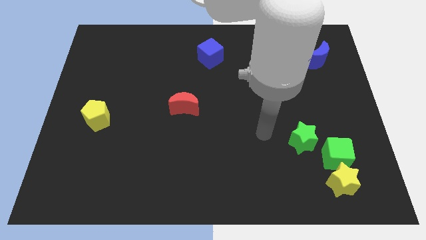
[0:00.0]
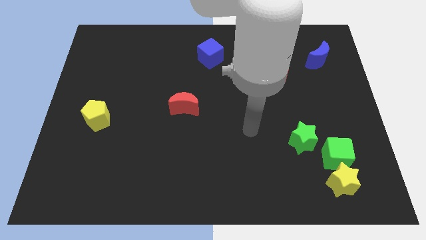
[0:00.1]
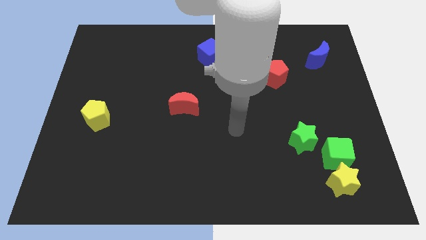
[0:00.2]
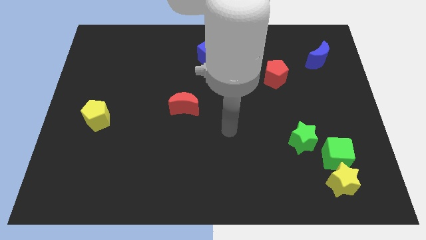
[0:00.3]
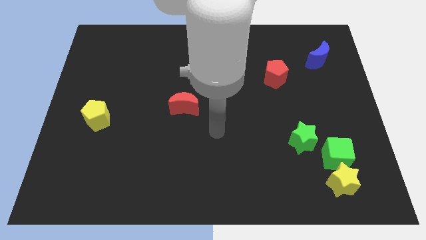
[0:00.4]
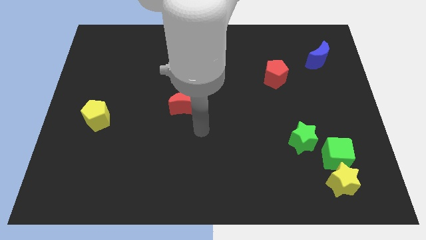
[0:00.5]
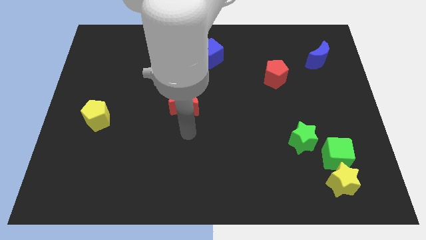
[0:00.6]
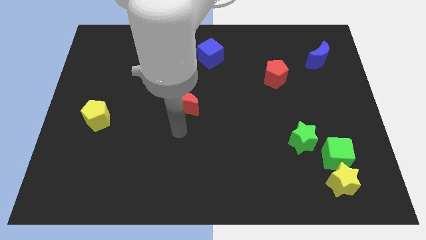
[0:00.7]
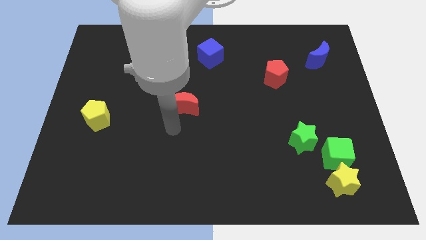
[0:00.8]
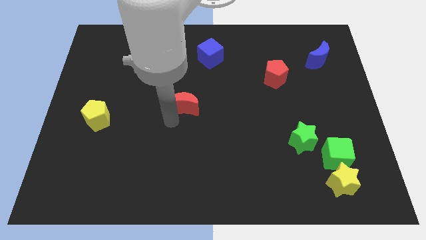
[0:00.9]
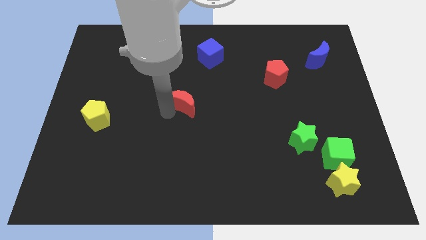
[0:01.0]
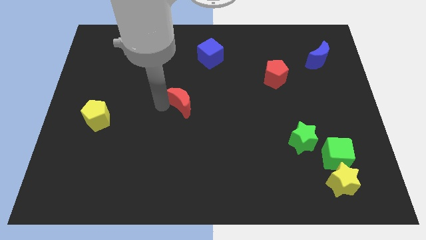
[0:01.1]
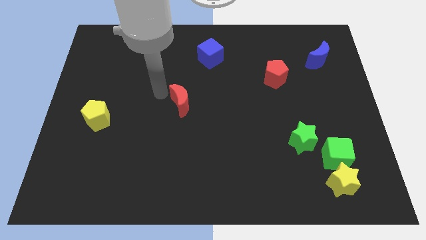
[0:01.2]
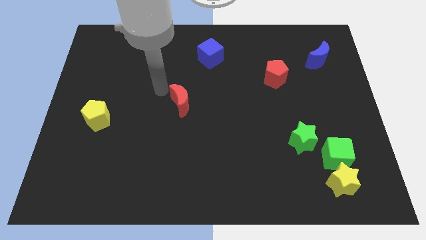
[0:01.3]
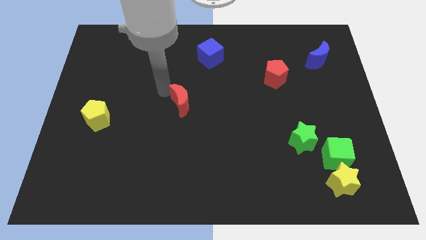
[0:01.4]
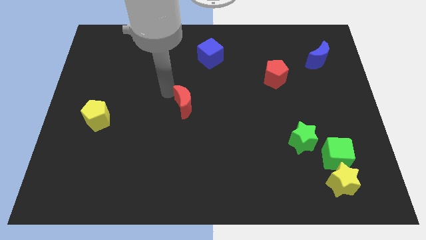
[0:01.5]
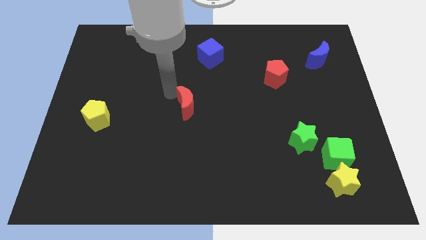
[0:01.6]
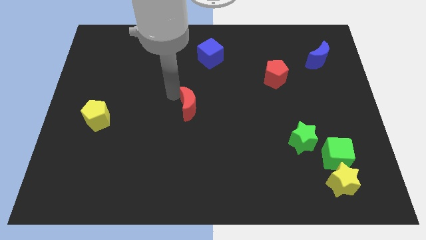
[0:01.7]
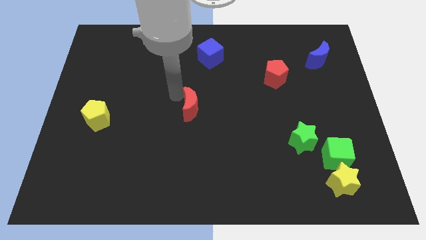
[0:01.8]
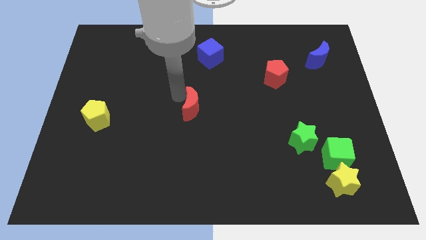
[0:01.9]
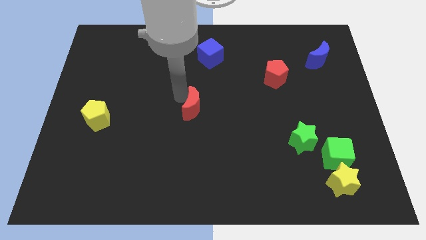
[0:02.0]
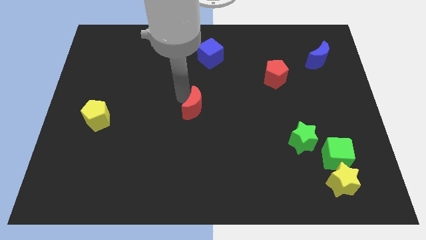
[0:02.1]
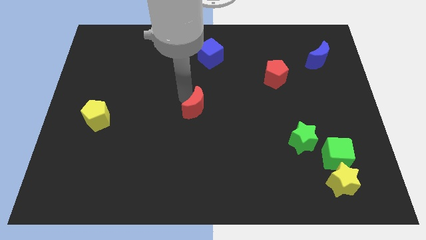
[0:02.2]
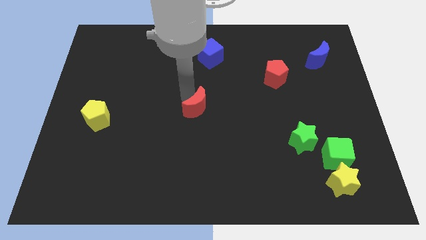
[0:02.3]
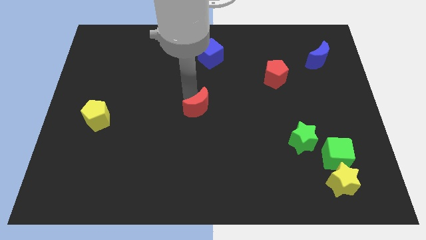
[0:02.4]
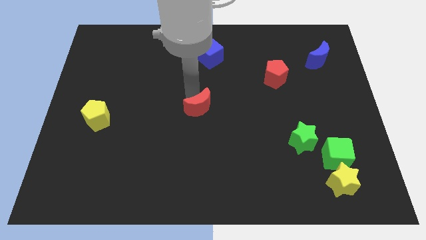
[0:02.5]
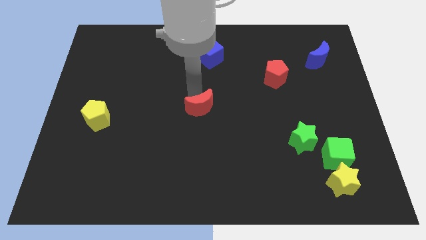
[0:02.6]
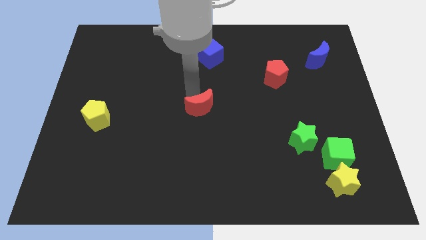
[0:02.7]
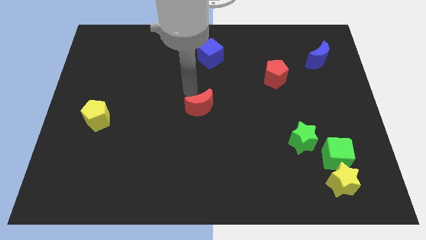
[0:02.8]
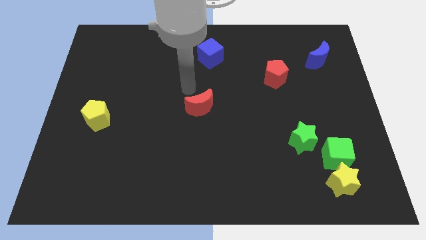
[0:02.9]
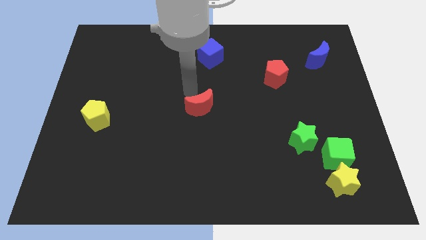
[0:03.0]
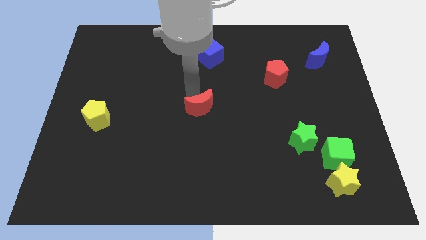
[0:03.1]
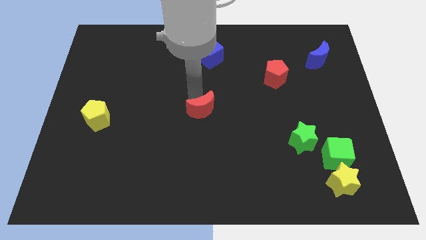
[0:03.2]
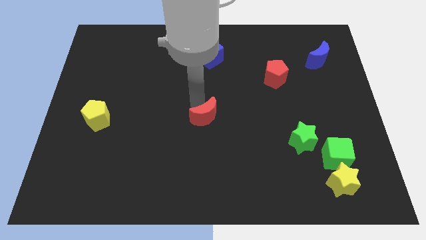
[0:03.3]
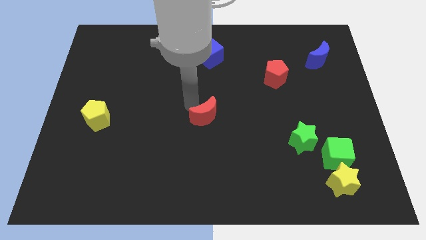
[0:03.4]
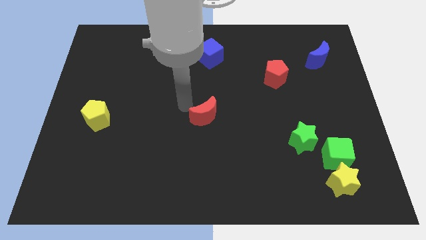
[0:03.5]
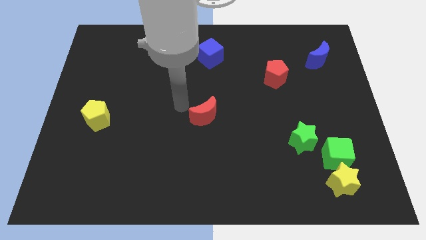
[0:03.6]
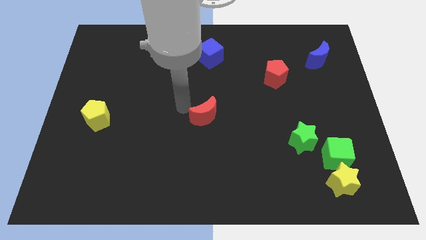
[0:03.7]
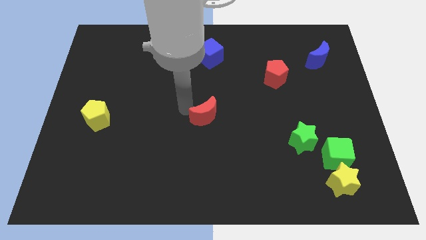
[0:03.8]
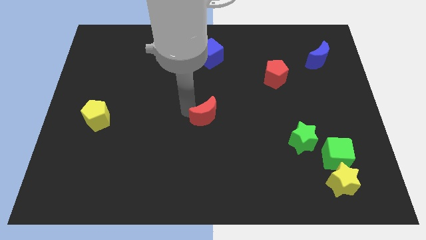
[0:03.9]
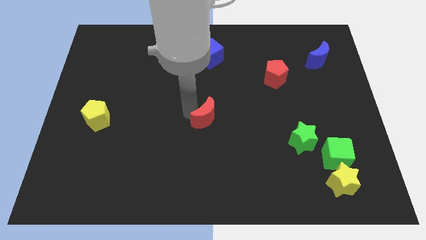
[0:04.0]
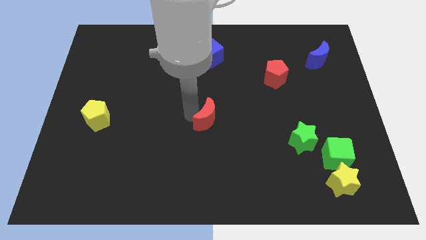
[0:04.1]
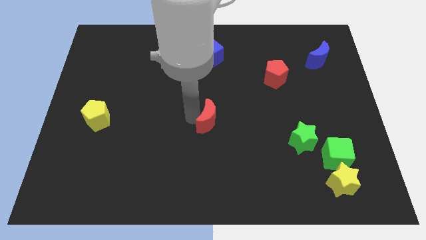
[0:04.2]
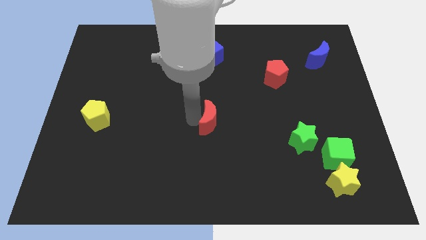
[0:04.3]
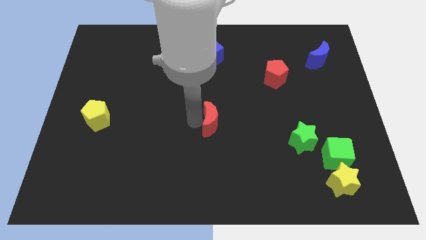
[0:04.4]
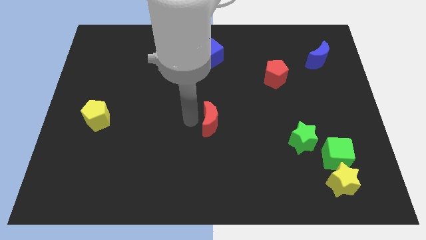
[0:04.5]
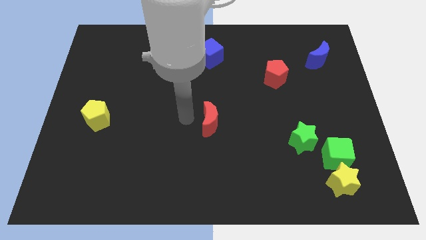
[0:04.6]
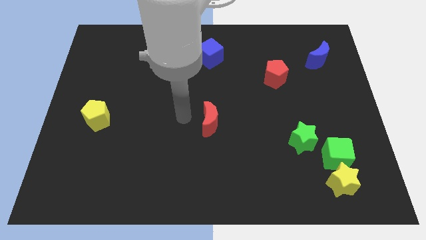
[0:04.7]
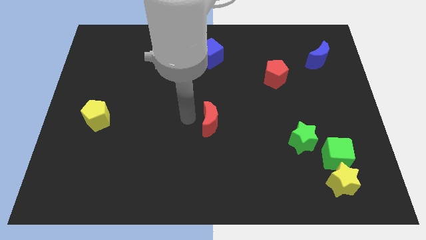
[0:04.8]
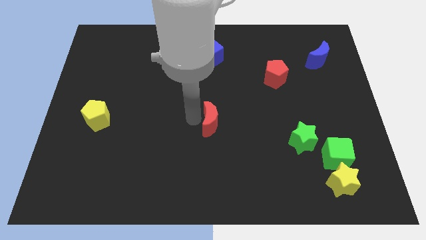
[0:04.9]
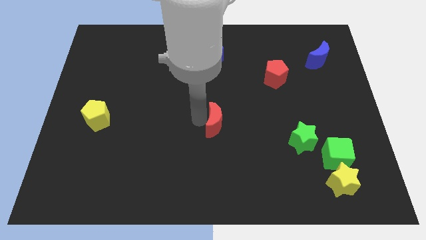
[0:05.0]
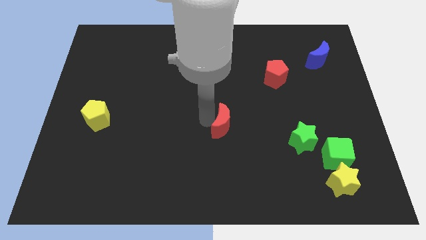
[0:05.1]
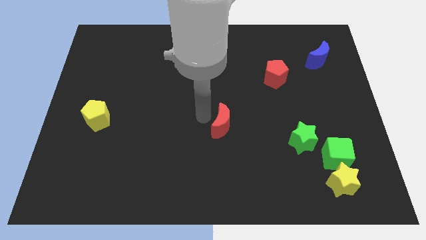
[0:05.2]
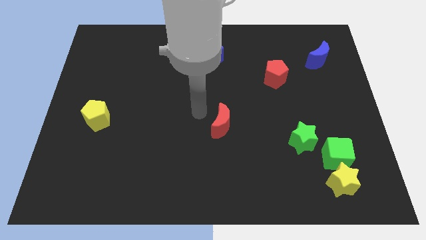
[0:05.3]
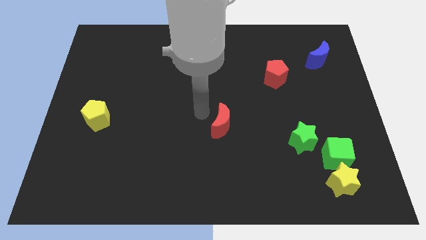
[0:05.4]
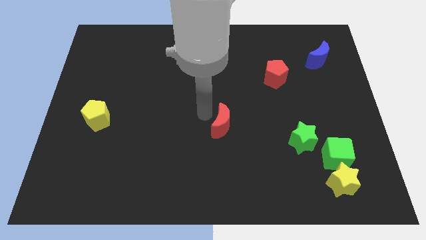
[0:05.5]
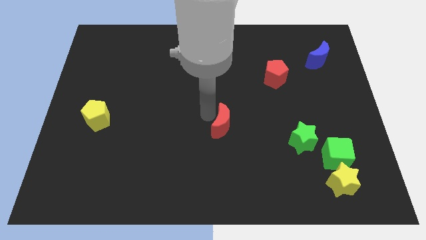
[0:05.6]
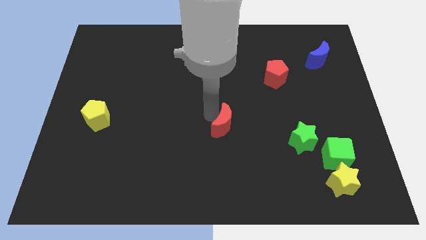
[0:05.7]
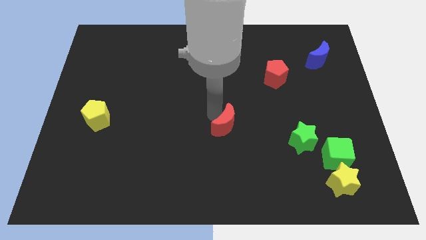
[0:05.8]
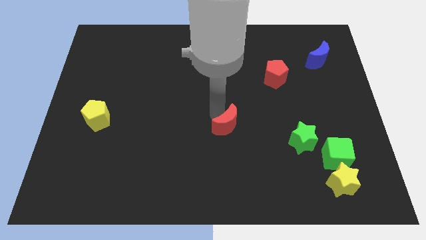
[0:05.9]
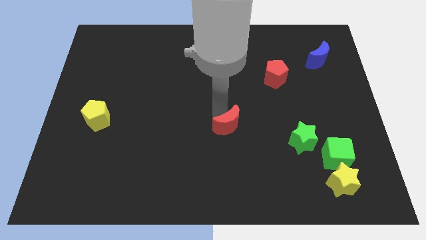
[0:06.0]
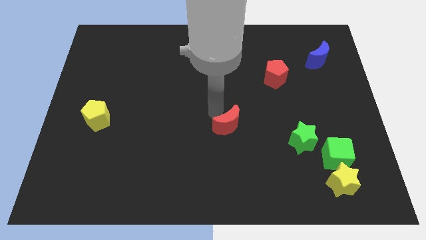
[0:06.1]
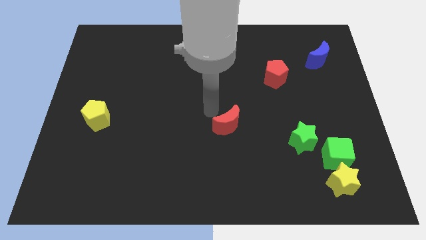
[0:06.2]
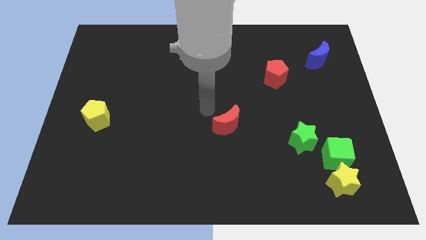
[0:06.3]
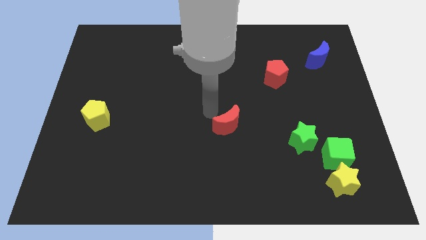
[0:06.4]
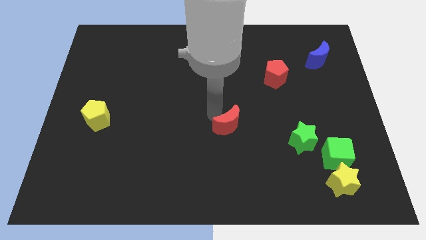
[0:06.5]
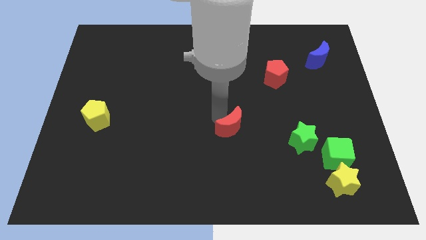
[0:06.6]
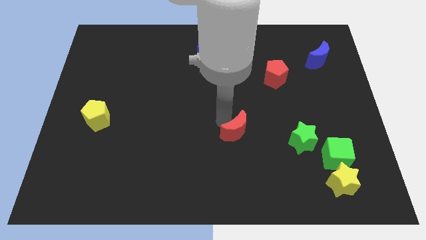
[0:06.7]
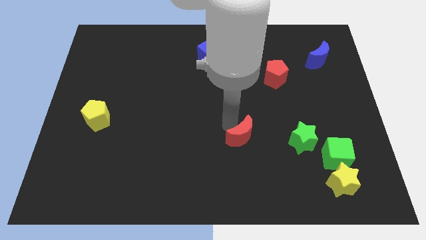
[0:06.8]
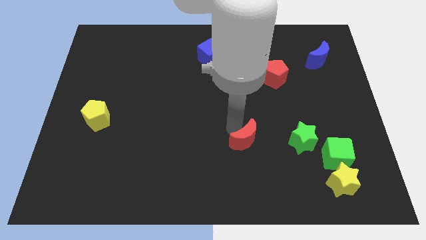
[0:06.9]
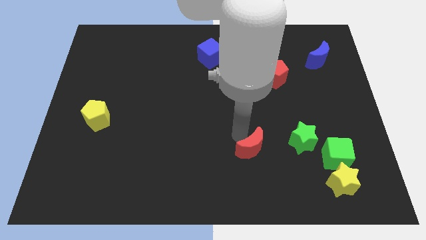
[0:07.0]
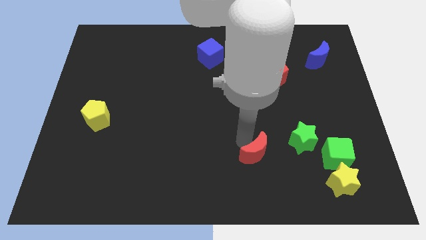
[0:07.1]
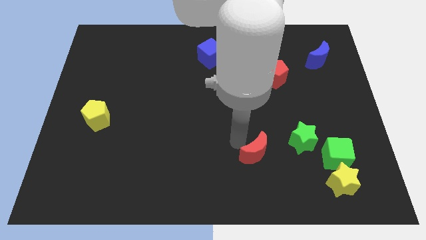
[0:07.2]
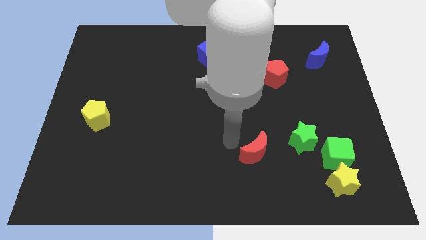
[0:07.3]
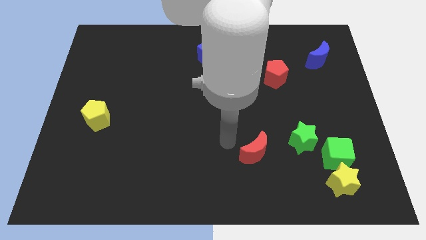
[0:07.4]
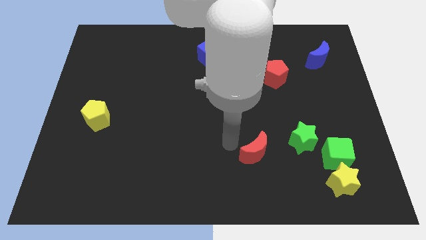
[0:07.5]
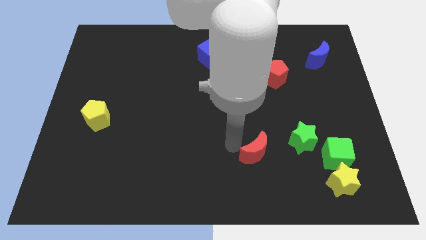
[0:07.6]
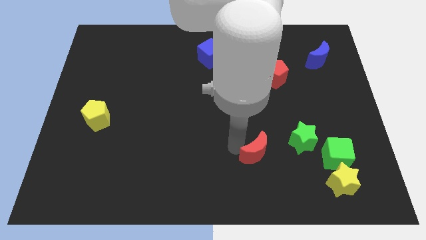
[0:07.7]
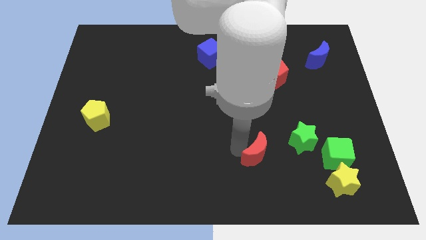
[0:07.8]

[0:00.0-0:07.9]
push the red moon to the bottom left of the green star

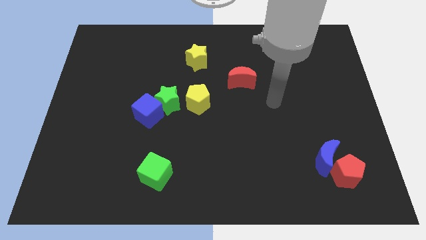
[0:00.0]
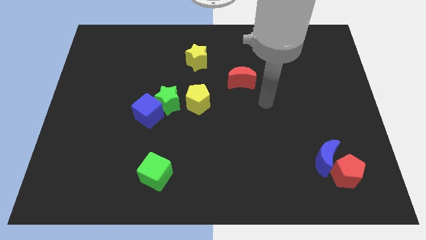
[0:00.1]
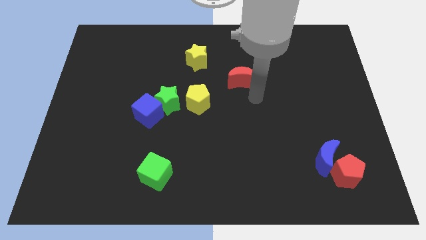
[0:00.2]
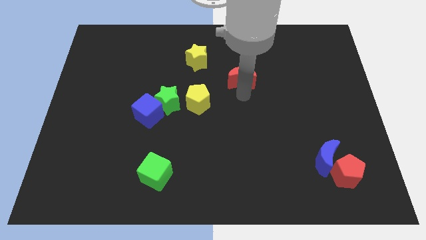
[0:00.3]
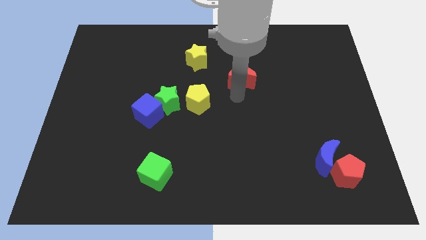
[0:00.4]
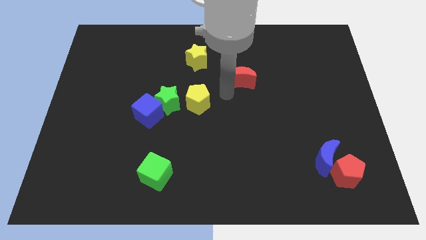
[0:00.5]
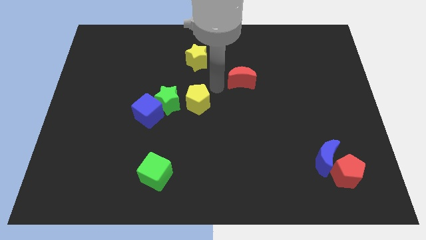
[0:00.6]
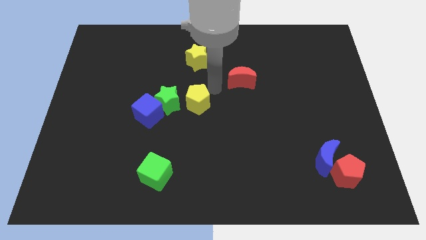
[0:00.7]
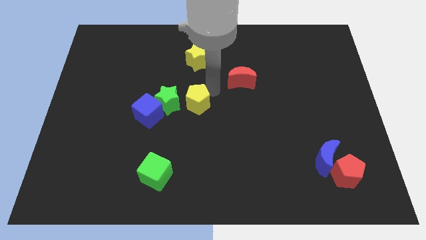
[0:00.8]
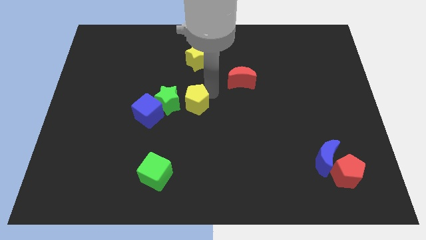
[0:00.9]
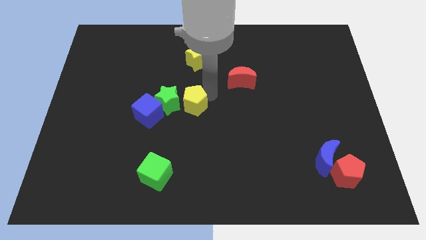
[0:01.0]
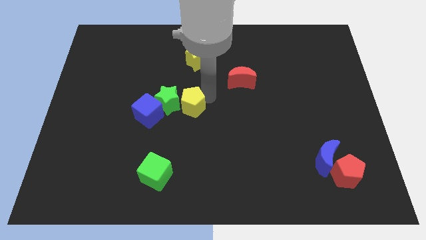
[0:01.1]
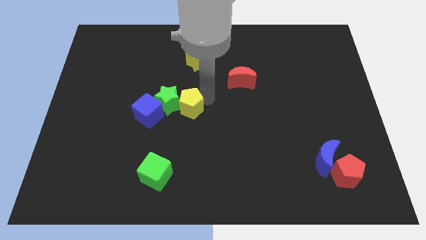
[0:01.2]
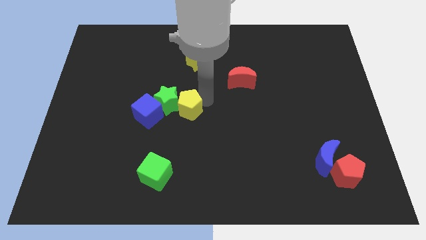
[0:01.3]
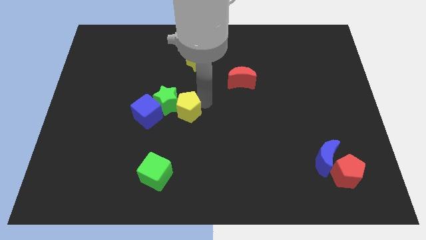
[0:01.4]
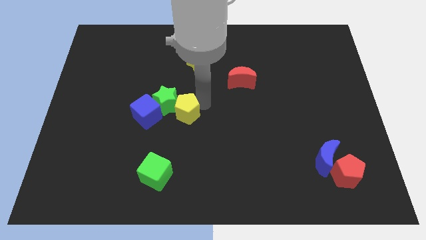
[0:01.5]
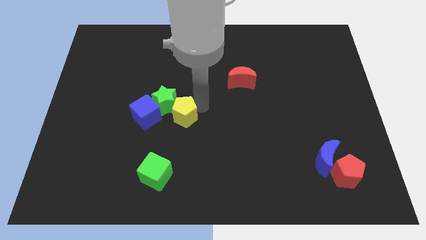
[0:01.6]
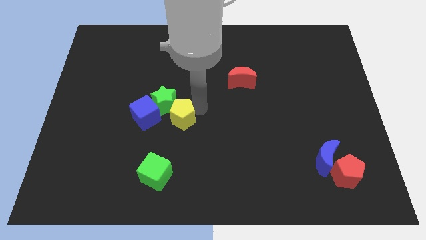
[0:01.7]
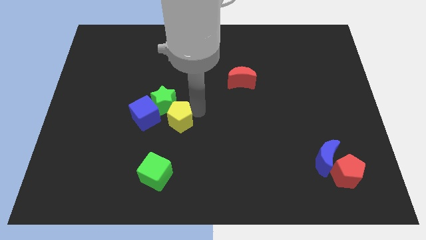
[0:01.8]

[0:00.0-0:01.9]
put the yellow pentagon to the top side of the green cube
